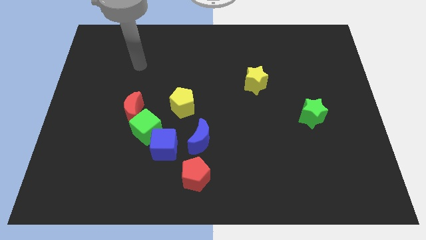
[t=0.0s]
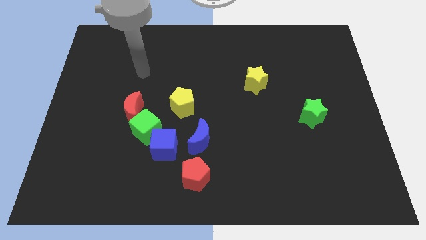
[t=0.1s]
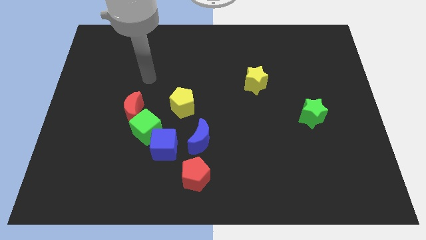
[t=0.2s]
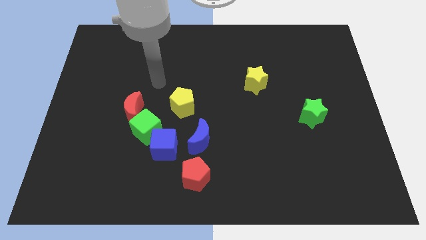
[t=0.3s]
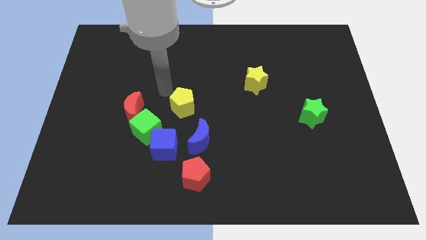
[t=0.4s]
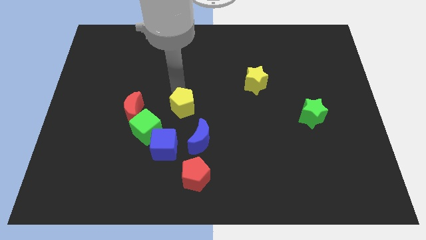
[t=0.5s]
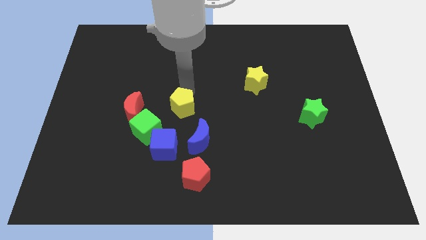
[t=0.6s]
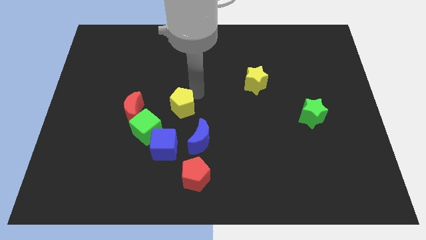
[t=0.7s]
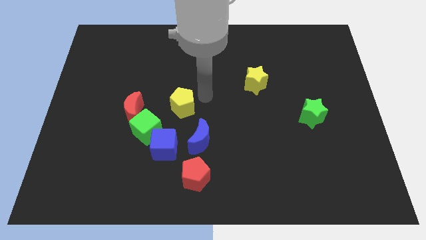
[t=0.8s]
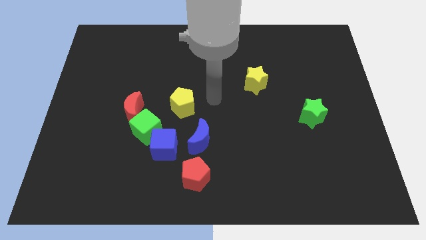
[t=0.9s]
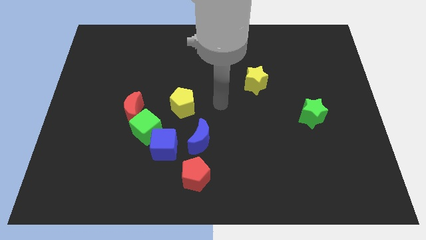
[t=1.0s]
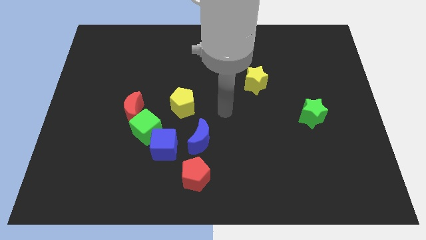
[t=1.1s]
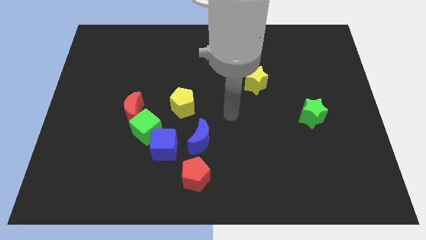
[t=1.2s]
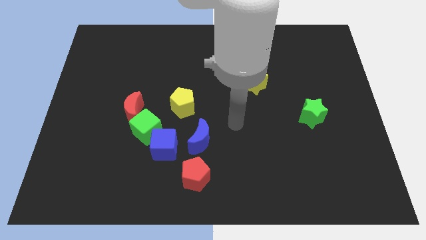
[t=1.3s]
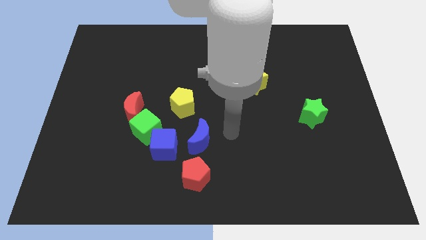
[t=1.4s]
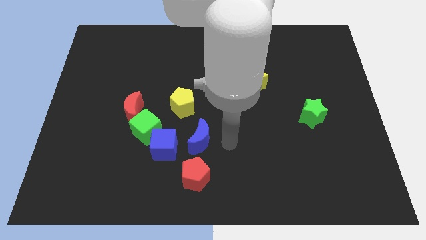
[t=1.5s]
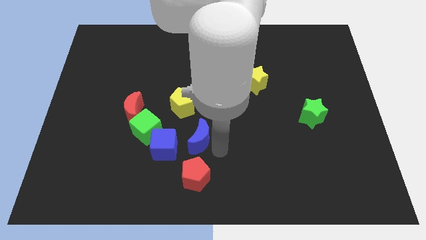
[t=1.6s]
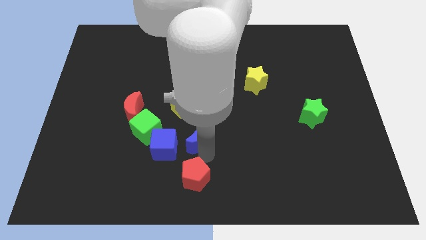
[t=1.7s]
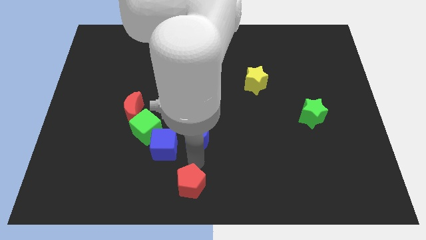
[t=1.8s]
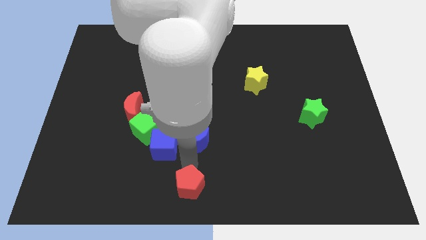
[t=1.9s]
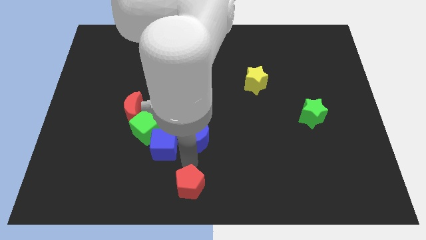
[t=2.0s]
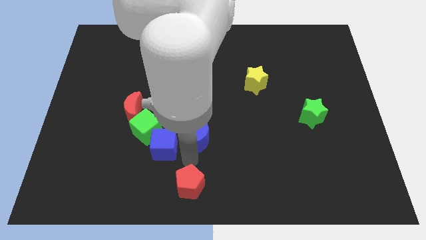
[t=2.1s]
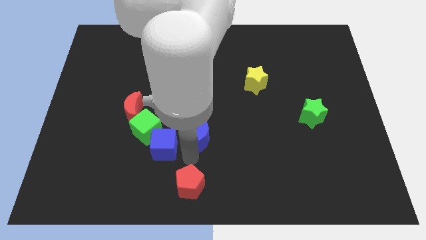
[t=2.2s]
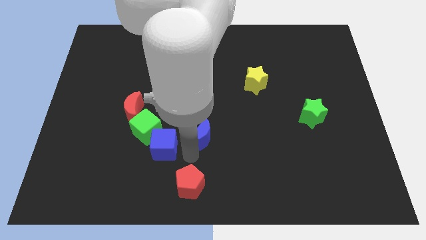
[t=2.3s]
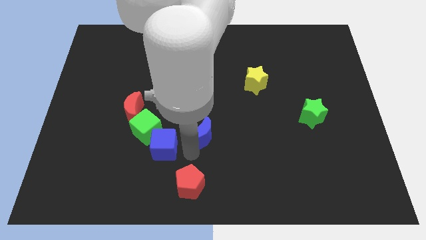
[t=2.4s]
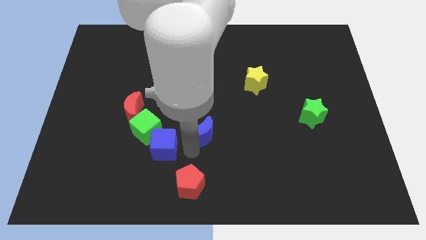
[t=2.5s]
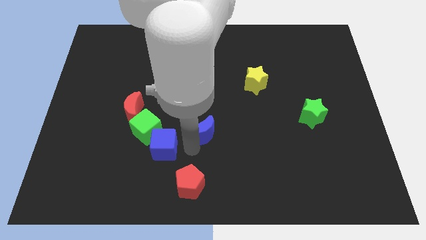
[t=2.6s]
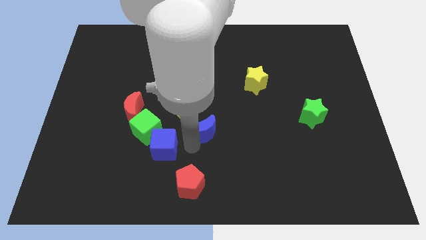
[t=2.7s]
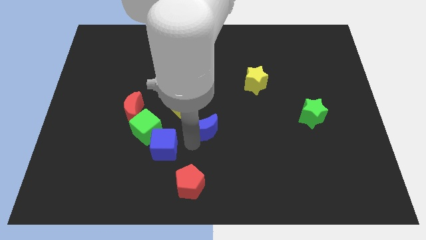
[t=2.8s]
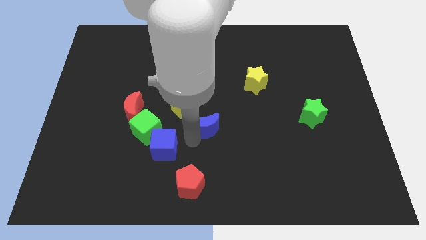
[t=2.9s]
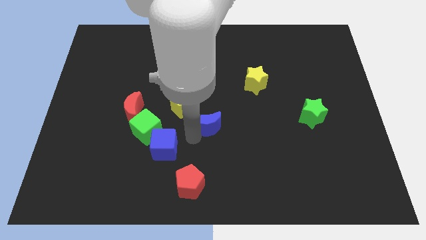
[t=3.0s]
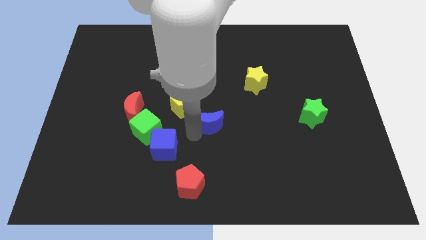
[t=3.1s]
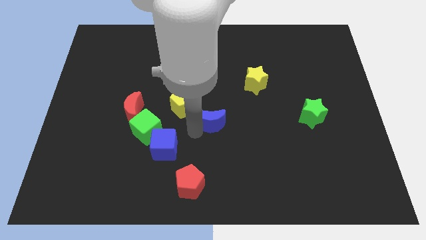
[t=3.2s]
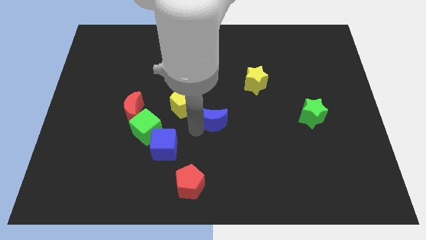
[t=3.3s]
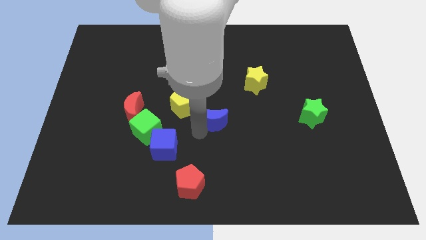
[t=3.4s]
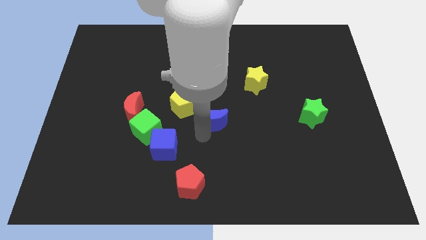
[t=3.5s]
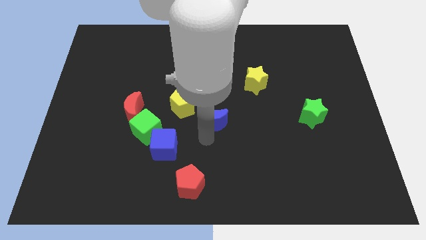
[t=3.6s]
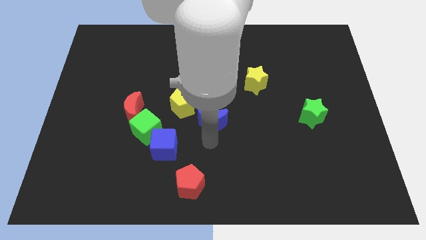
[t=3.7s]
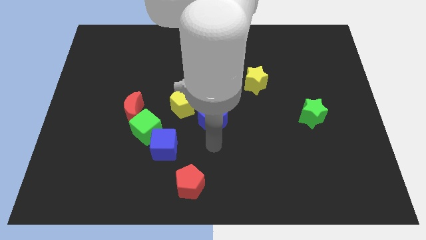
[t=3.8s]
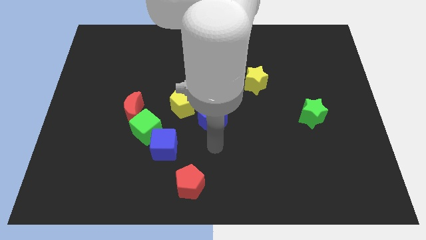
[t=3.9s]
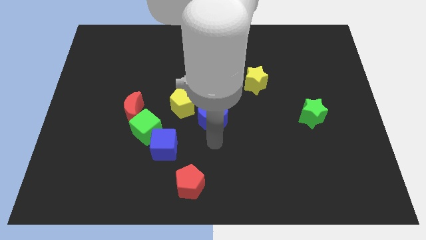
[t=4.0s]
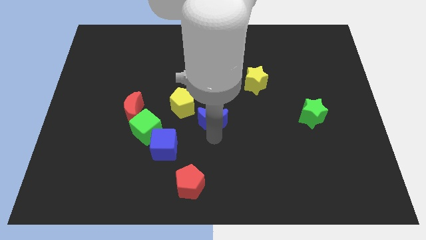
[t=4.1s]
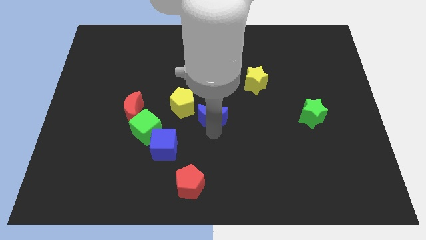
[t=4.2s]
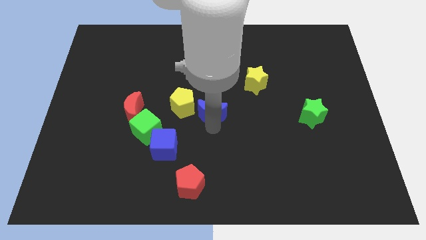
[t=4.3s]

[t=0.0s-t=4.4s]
push the blue moon upwards a little bit

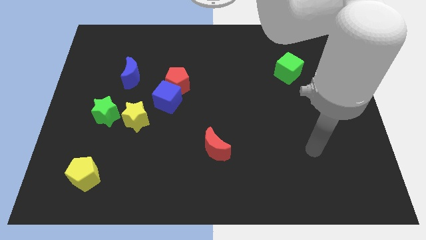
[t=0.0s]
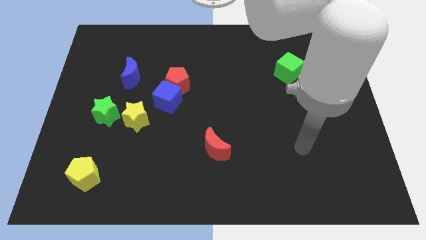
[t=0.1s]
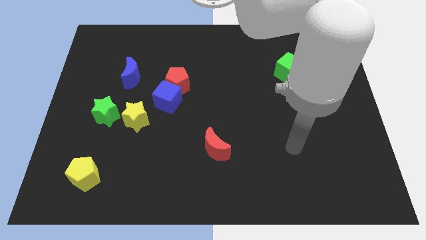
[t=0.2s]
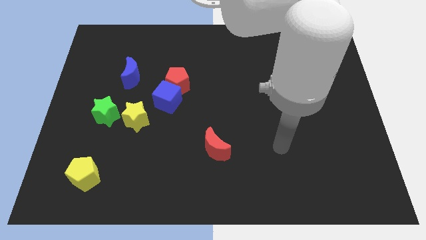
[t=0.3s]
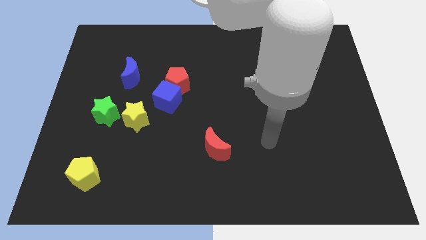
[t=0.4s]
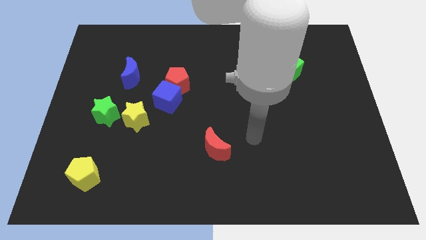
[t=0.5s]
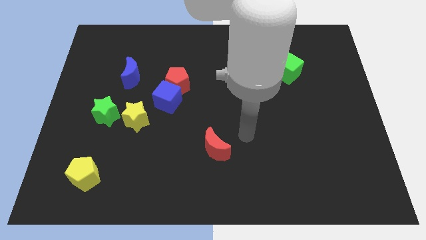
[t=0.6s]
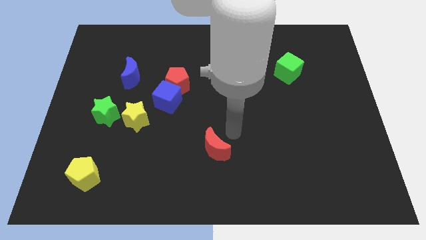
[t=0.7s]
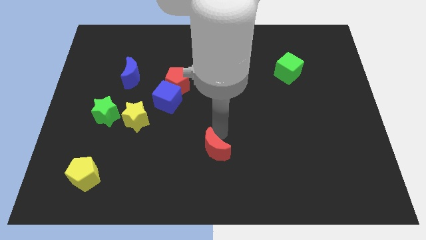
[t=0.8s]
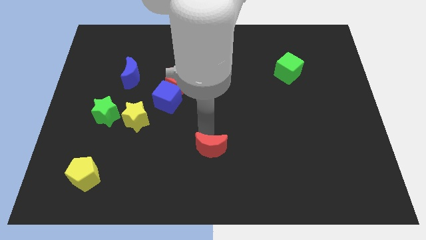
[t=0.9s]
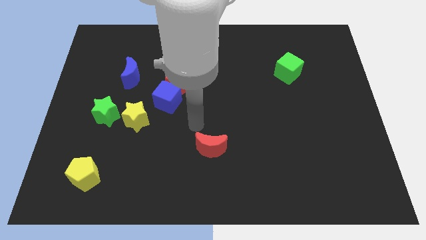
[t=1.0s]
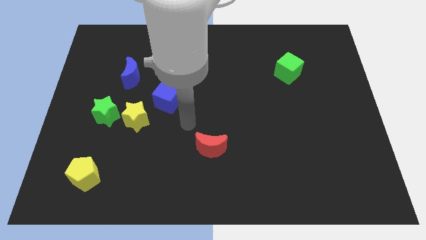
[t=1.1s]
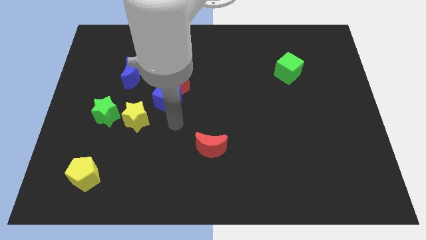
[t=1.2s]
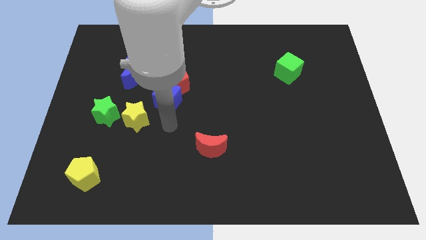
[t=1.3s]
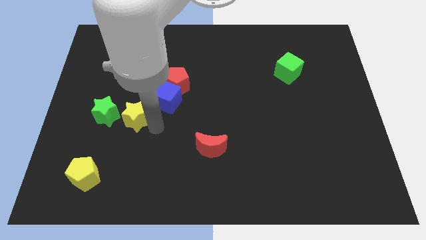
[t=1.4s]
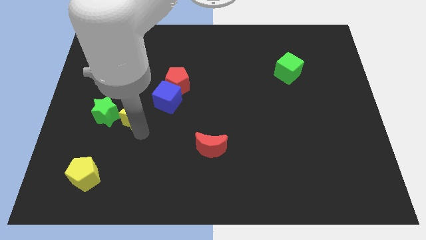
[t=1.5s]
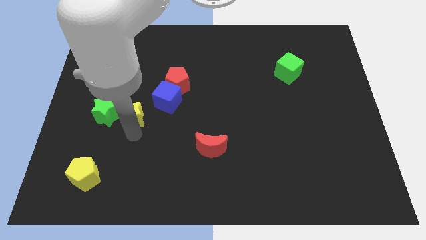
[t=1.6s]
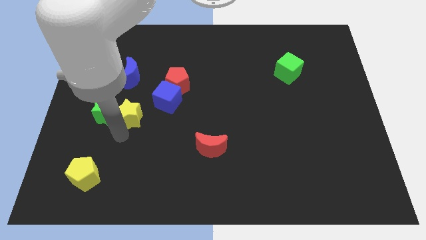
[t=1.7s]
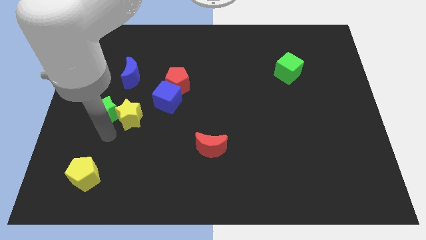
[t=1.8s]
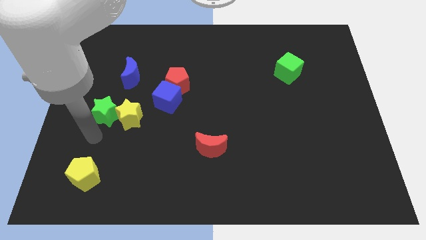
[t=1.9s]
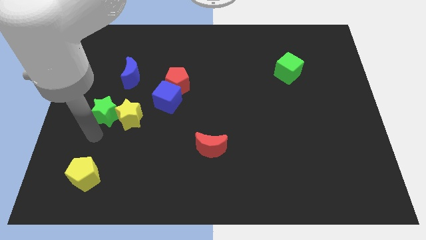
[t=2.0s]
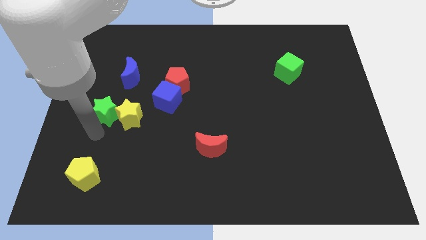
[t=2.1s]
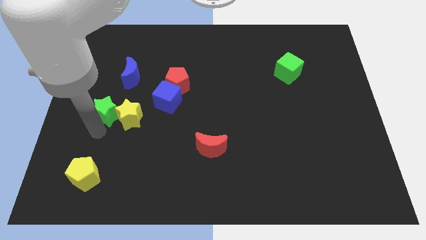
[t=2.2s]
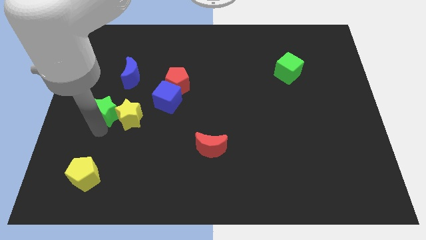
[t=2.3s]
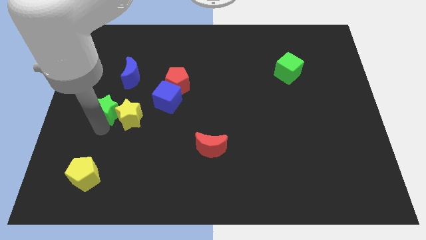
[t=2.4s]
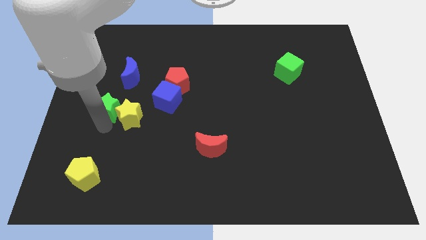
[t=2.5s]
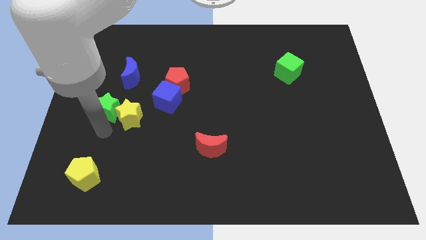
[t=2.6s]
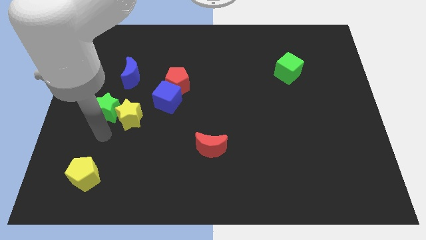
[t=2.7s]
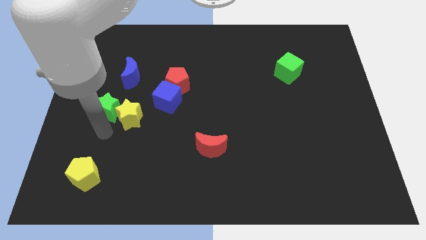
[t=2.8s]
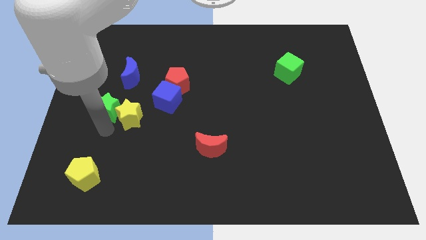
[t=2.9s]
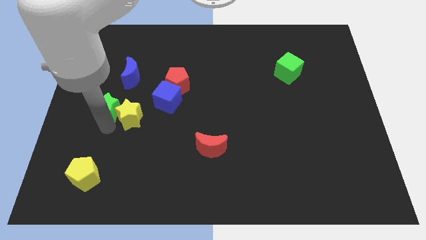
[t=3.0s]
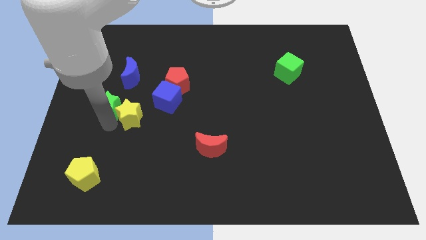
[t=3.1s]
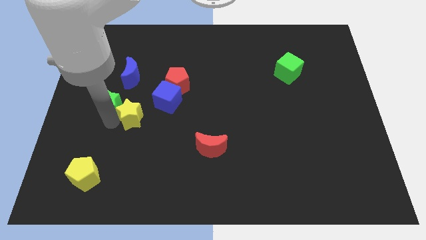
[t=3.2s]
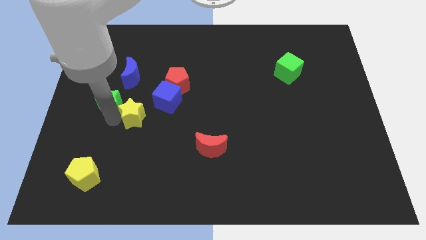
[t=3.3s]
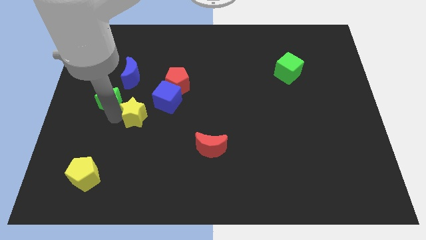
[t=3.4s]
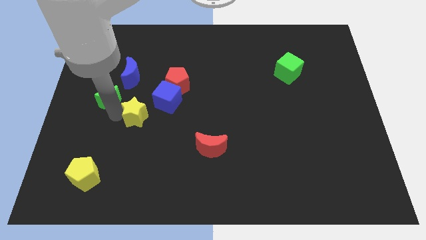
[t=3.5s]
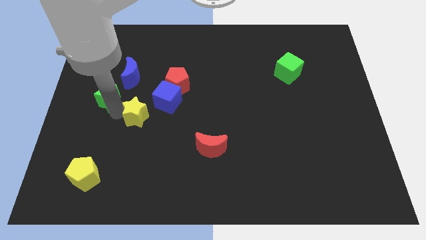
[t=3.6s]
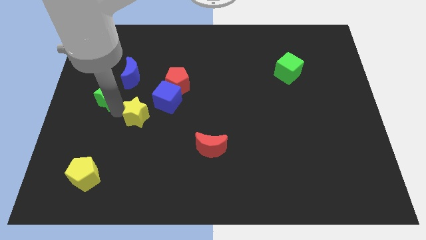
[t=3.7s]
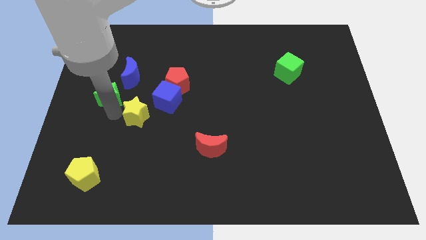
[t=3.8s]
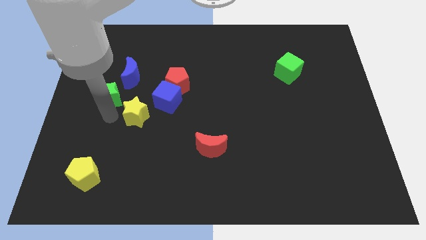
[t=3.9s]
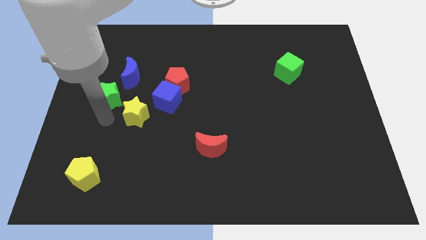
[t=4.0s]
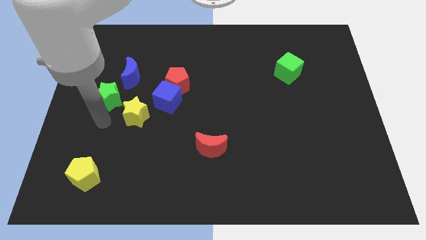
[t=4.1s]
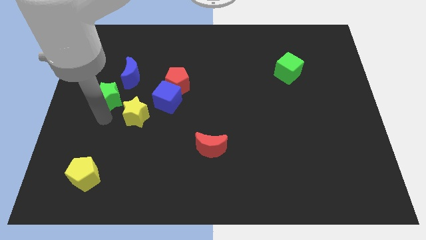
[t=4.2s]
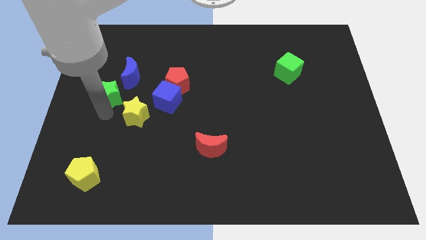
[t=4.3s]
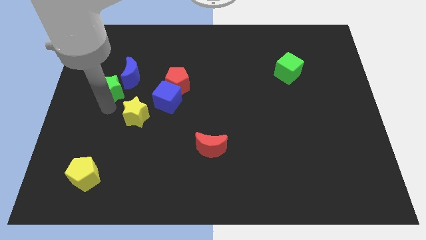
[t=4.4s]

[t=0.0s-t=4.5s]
move the green star slightly upwards
